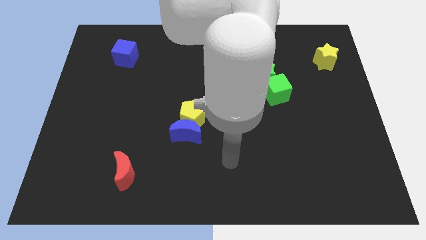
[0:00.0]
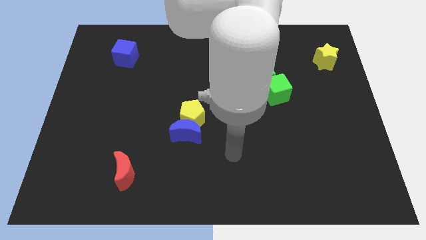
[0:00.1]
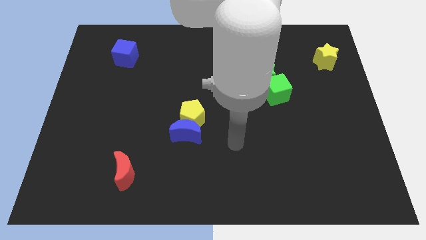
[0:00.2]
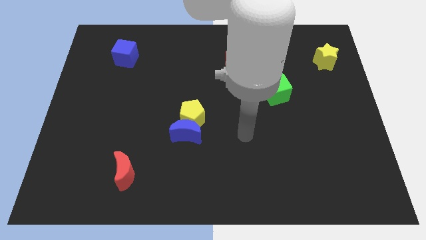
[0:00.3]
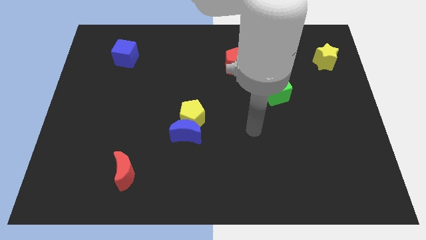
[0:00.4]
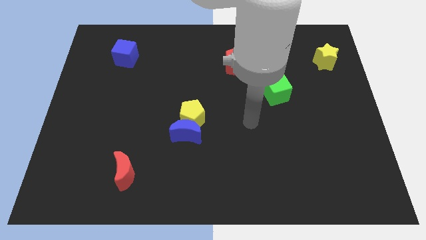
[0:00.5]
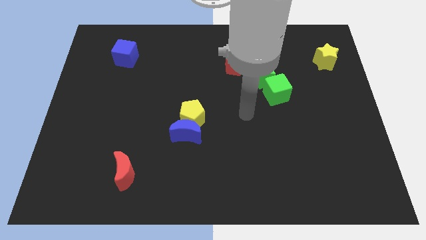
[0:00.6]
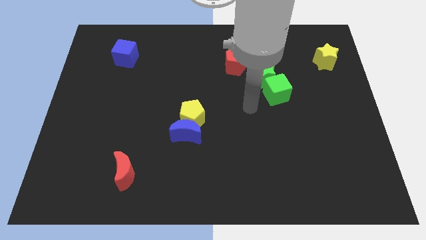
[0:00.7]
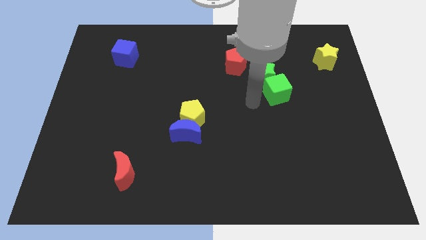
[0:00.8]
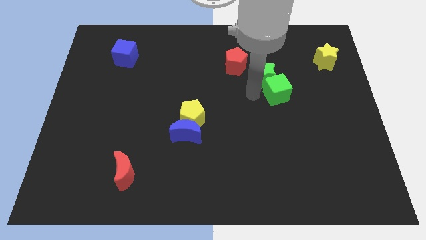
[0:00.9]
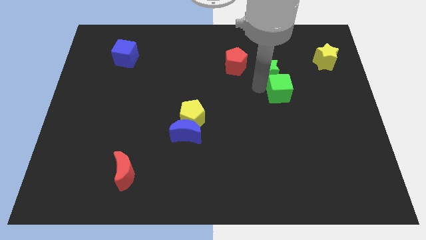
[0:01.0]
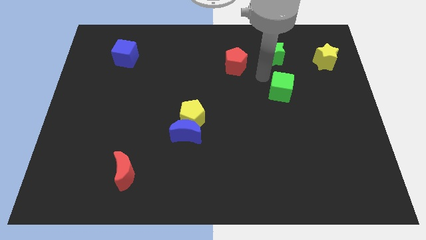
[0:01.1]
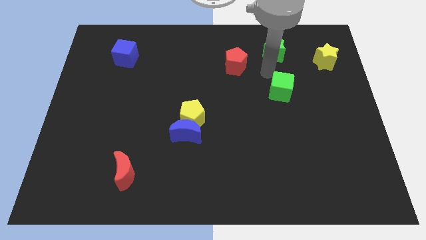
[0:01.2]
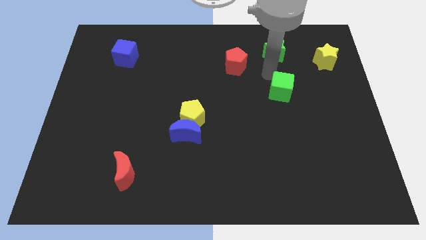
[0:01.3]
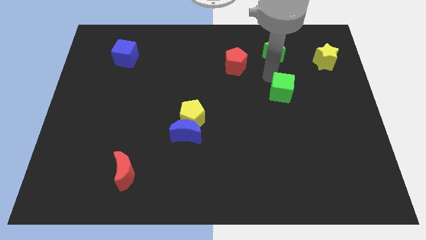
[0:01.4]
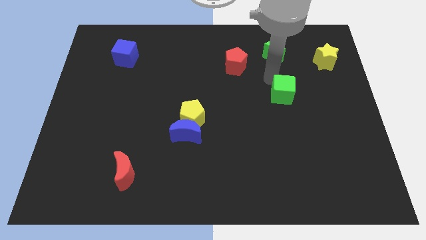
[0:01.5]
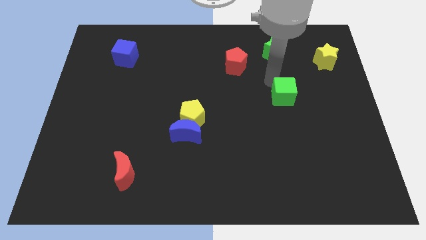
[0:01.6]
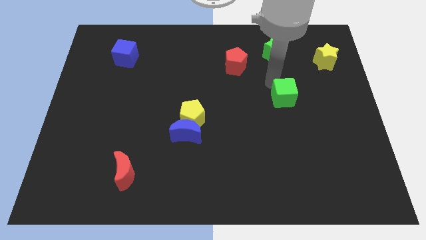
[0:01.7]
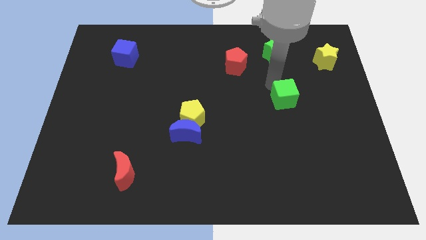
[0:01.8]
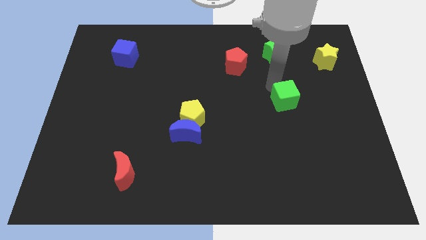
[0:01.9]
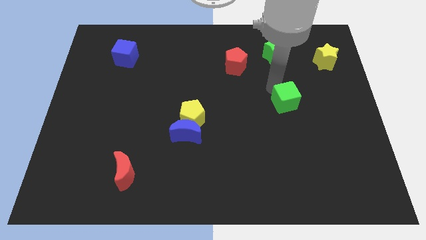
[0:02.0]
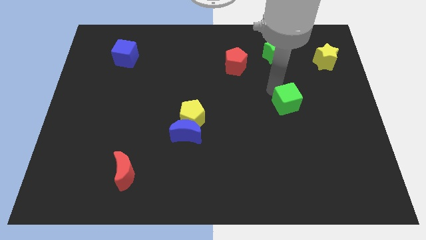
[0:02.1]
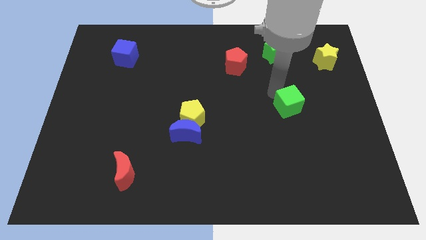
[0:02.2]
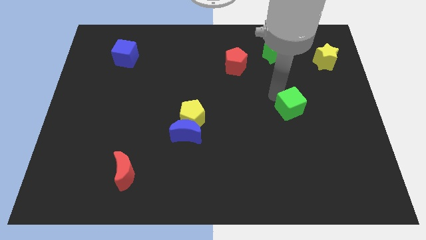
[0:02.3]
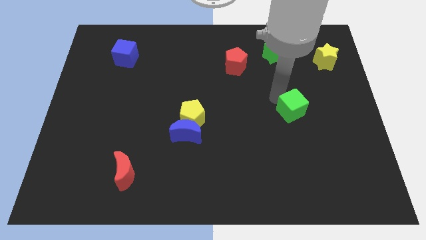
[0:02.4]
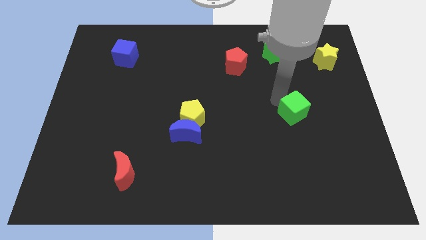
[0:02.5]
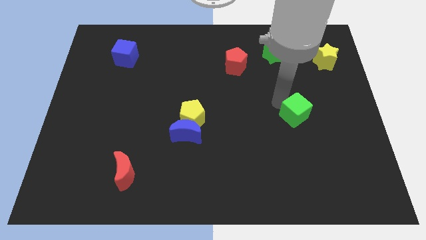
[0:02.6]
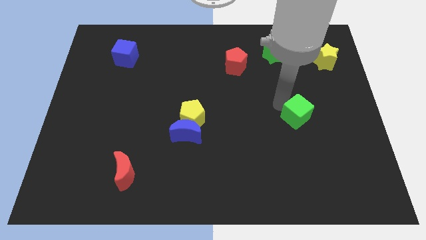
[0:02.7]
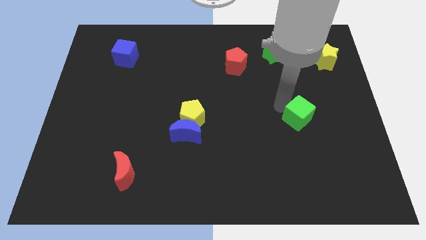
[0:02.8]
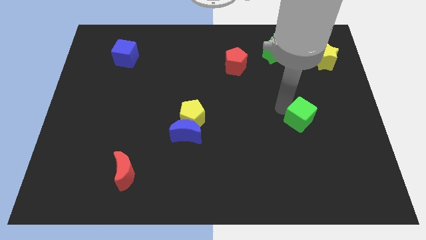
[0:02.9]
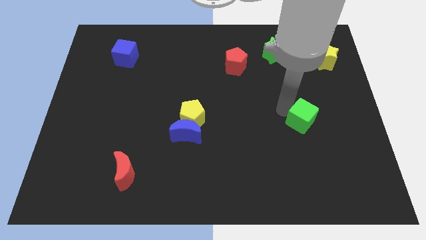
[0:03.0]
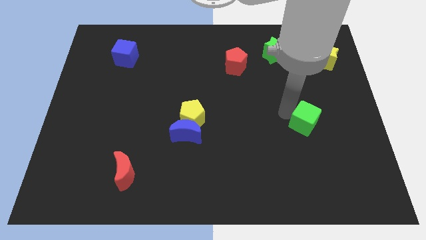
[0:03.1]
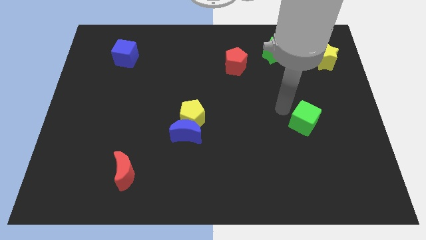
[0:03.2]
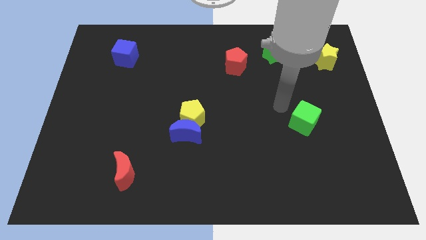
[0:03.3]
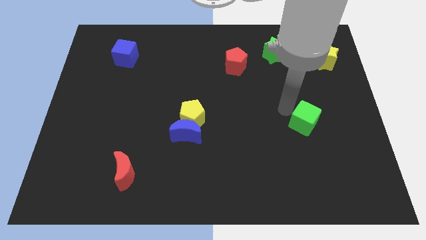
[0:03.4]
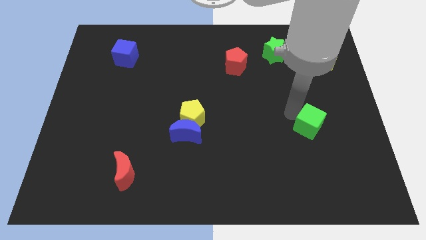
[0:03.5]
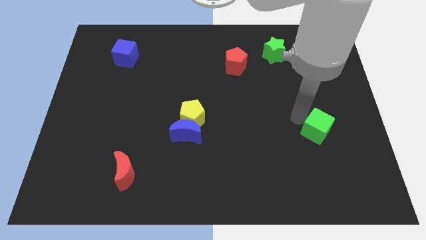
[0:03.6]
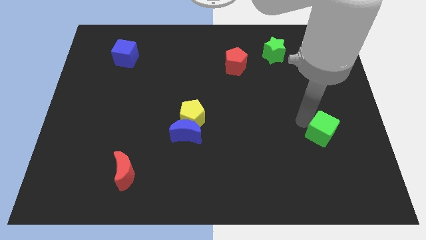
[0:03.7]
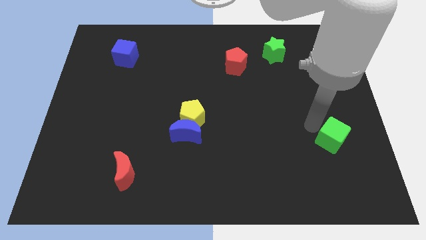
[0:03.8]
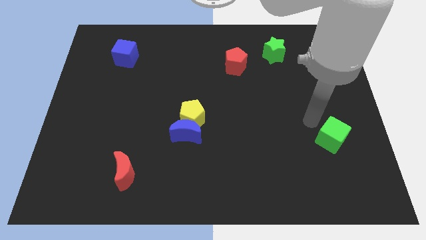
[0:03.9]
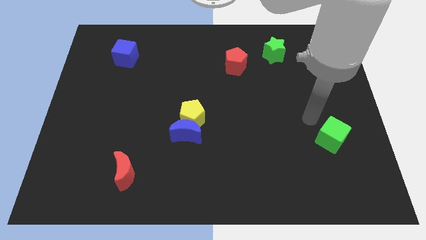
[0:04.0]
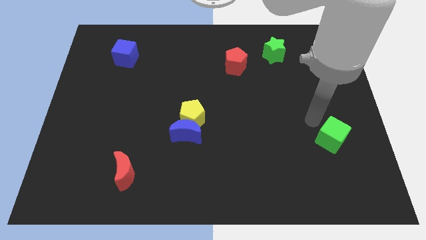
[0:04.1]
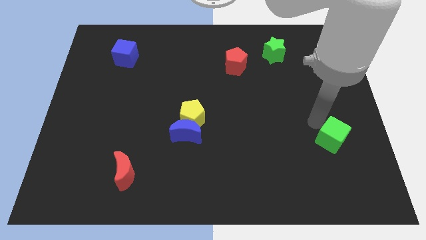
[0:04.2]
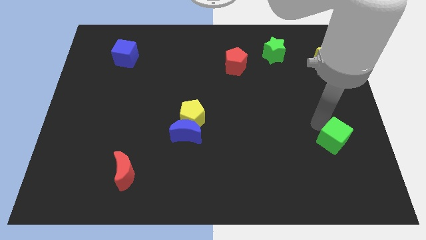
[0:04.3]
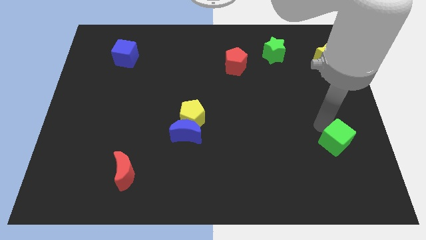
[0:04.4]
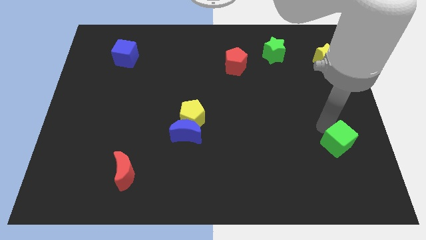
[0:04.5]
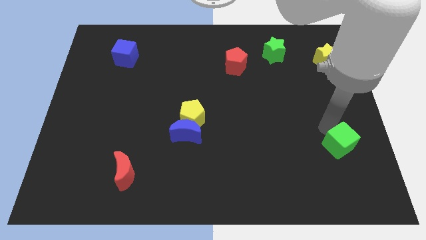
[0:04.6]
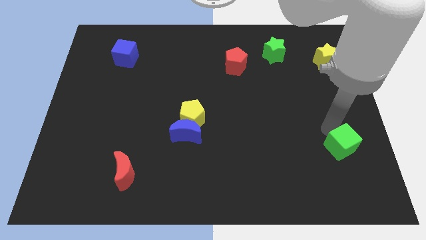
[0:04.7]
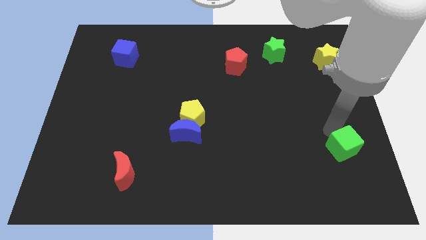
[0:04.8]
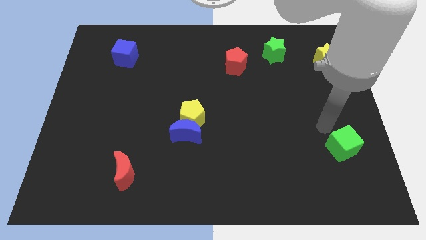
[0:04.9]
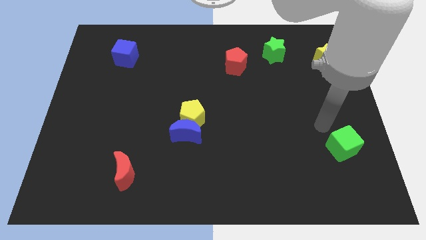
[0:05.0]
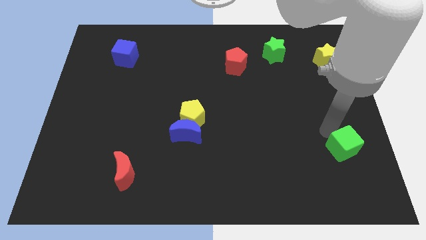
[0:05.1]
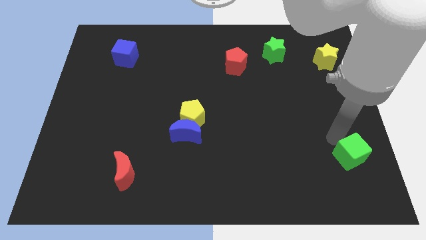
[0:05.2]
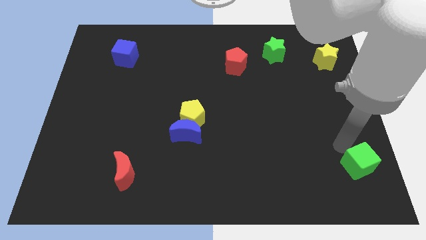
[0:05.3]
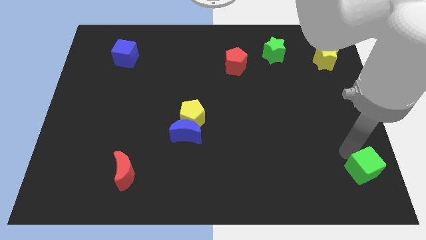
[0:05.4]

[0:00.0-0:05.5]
move the green cube to the bottom right of the board

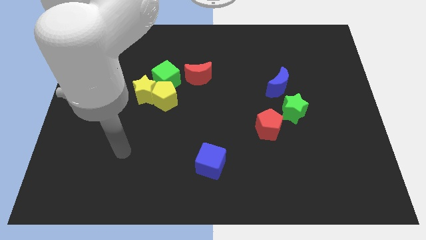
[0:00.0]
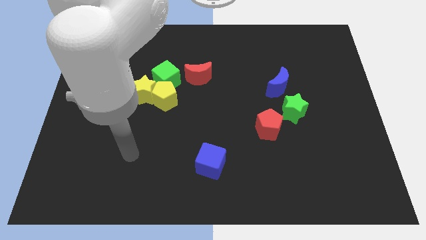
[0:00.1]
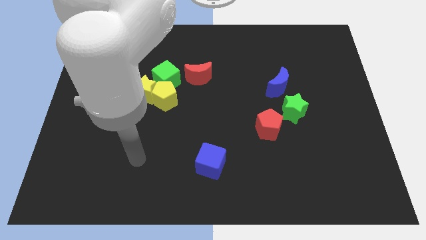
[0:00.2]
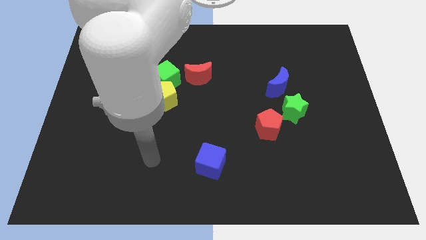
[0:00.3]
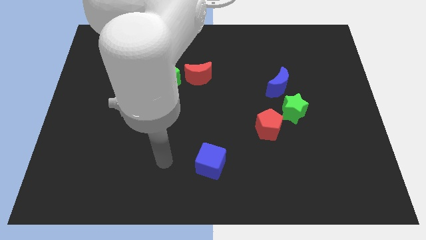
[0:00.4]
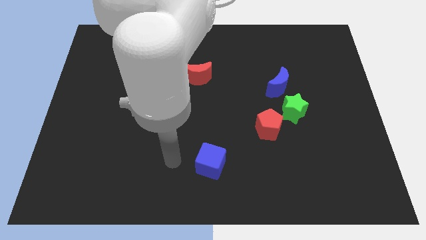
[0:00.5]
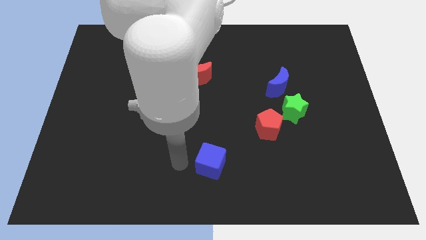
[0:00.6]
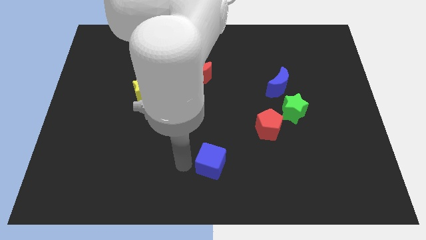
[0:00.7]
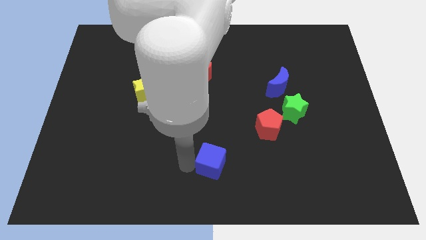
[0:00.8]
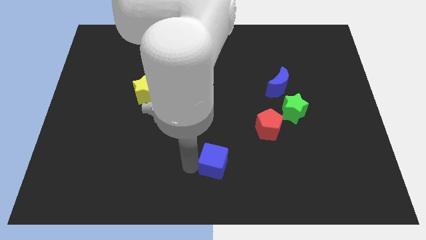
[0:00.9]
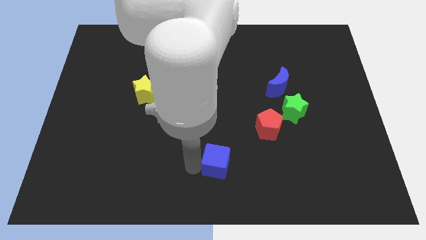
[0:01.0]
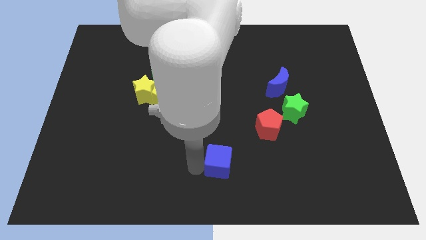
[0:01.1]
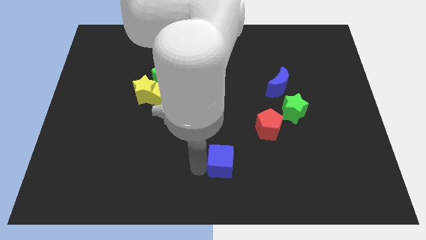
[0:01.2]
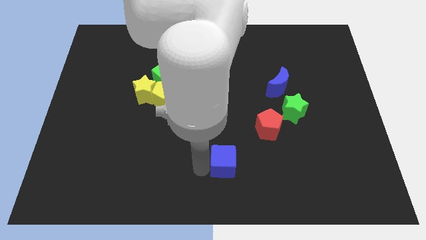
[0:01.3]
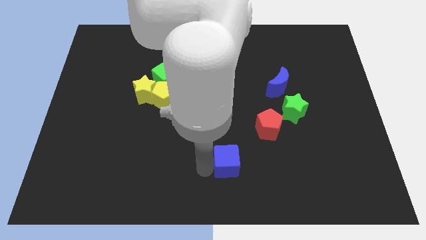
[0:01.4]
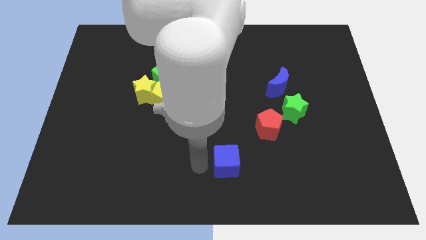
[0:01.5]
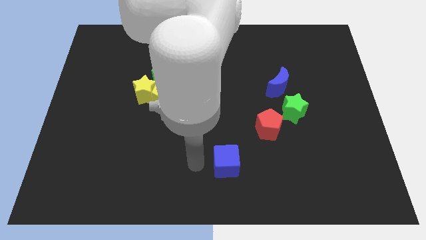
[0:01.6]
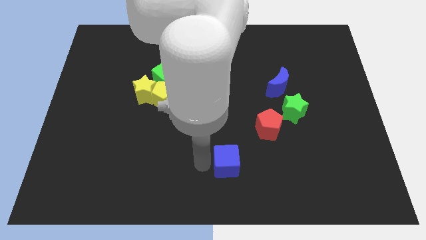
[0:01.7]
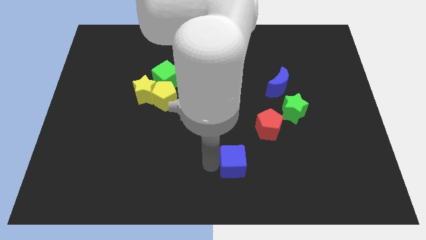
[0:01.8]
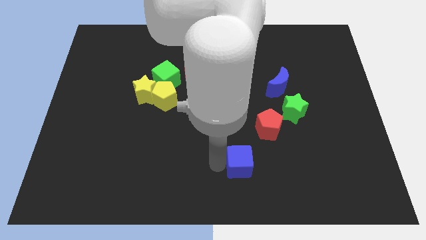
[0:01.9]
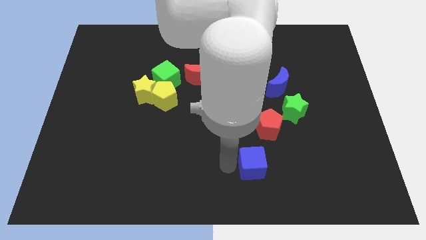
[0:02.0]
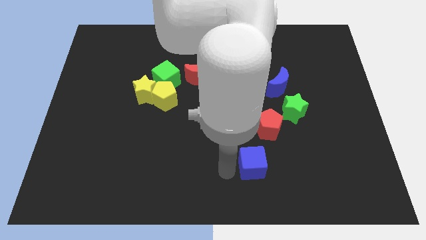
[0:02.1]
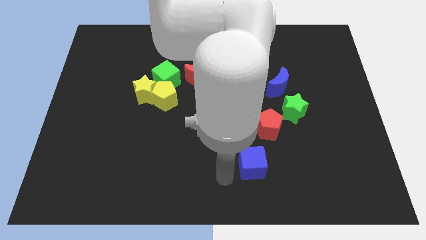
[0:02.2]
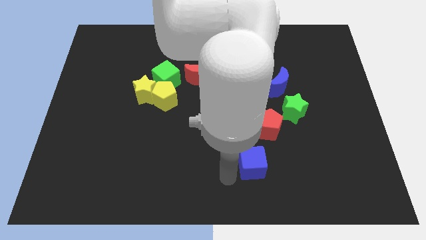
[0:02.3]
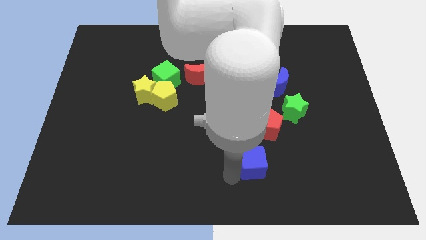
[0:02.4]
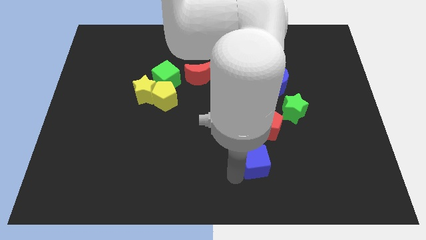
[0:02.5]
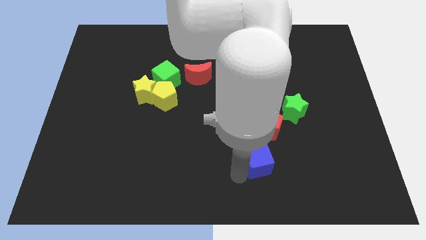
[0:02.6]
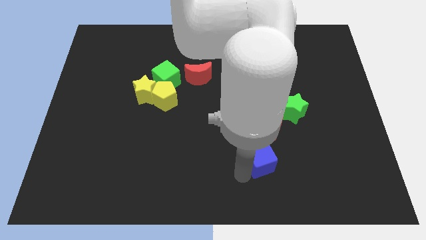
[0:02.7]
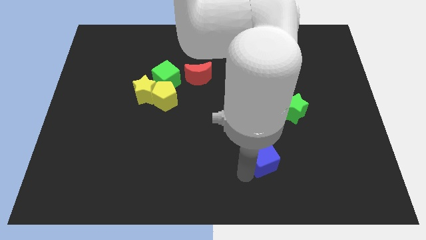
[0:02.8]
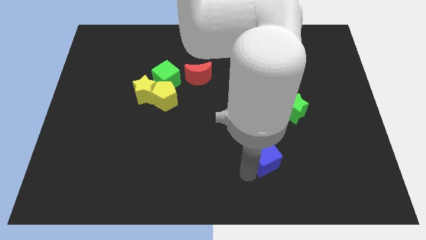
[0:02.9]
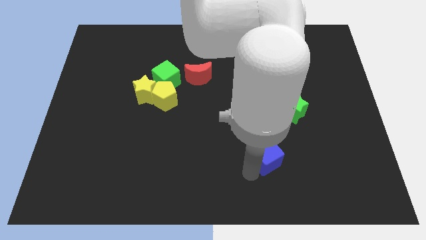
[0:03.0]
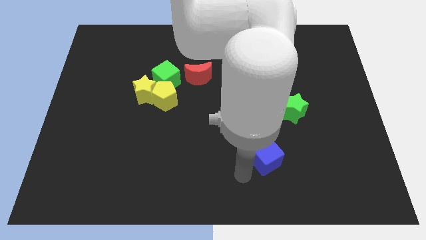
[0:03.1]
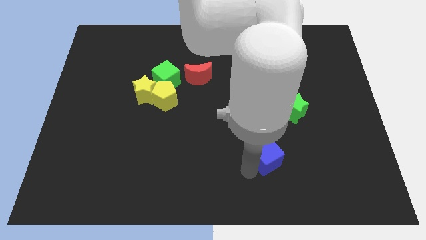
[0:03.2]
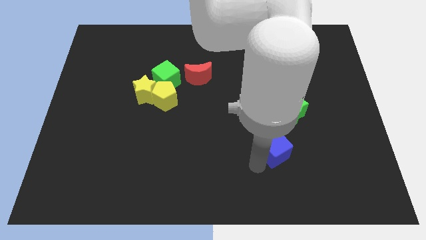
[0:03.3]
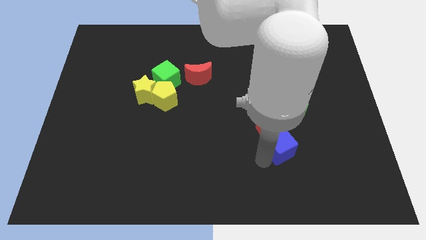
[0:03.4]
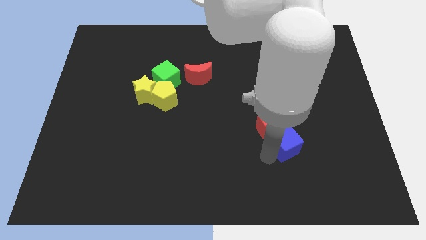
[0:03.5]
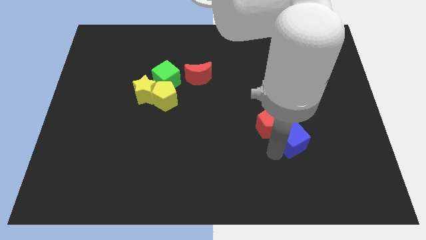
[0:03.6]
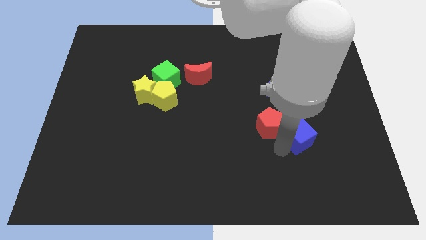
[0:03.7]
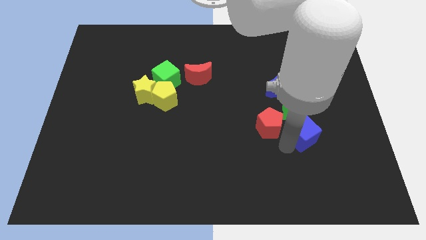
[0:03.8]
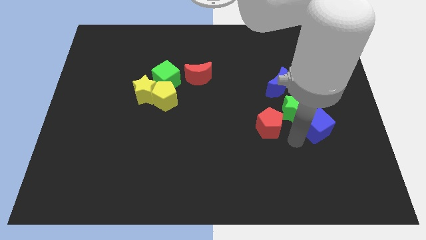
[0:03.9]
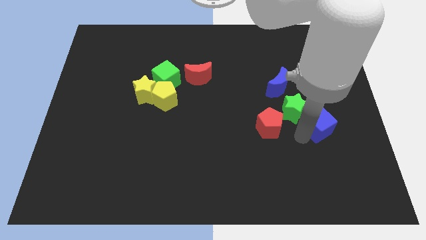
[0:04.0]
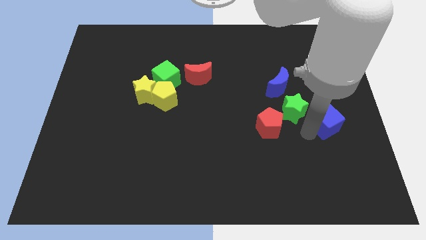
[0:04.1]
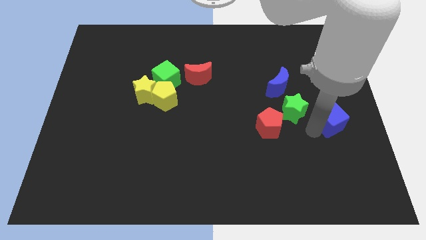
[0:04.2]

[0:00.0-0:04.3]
slide the blue cube to the center right
